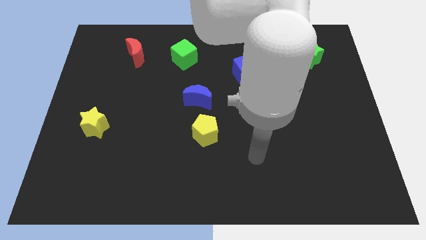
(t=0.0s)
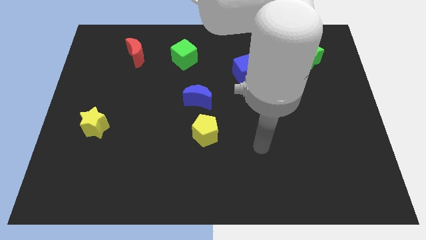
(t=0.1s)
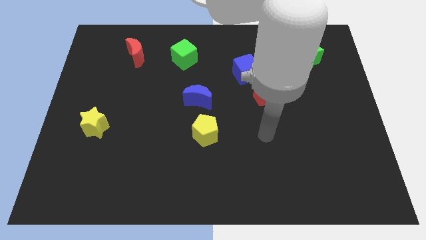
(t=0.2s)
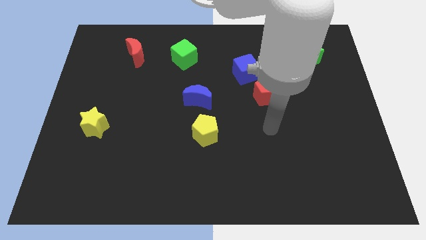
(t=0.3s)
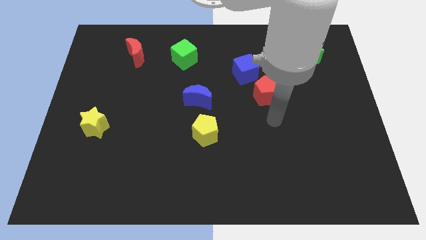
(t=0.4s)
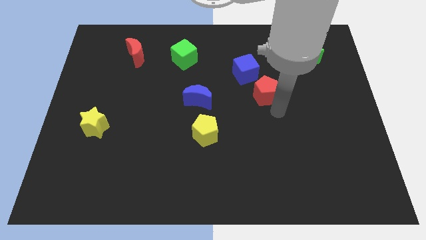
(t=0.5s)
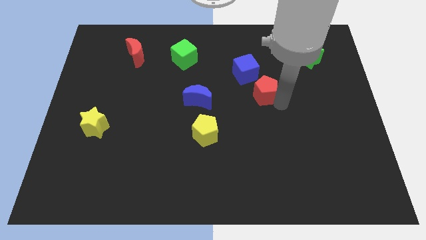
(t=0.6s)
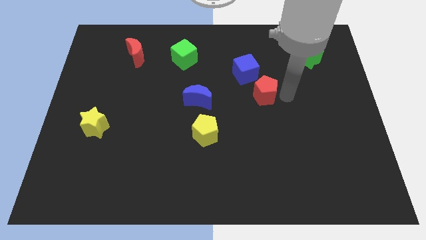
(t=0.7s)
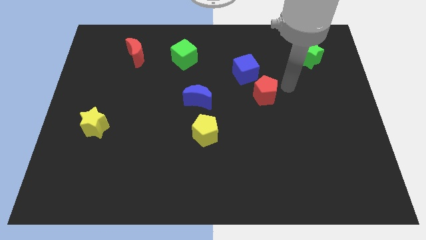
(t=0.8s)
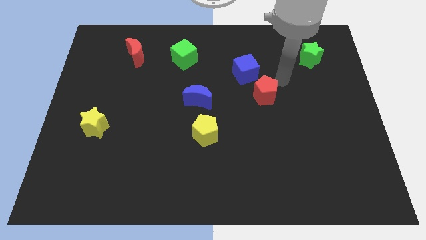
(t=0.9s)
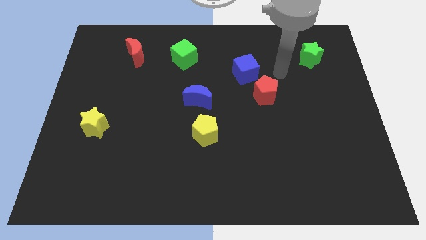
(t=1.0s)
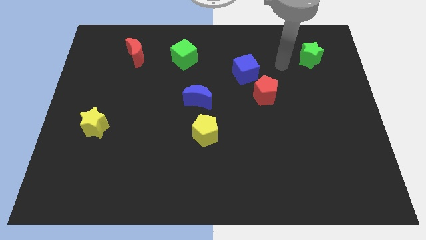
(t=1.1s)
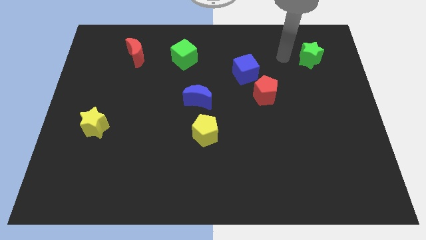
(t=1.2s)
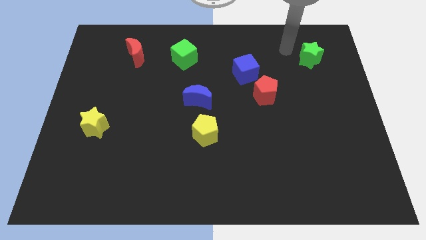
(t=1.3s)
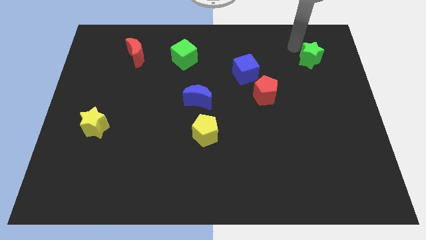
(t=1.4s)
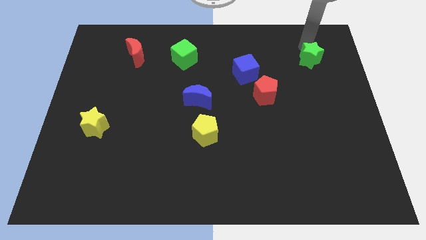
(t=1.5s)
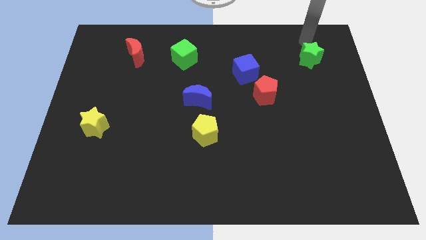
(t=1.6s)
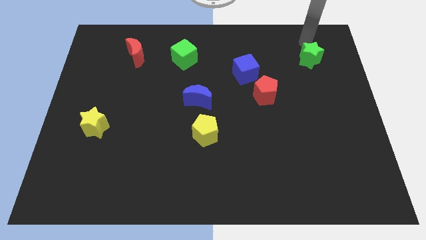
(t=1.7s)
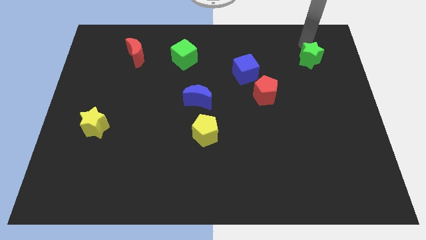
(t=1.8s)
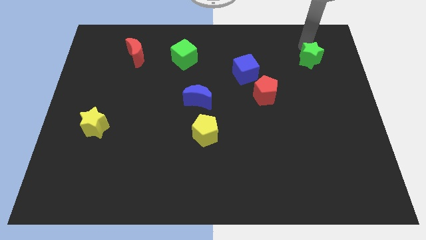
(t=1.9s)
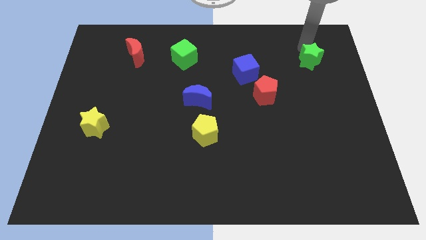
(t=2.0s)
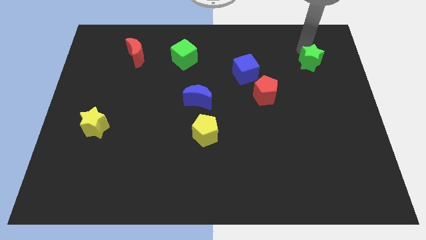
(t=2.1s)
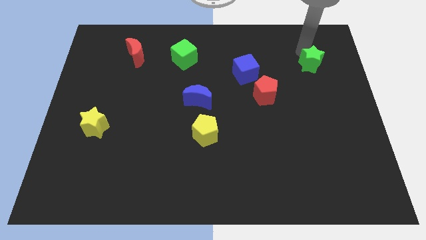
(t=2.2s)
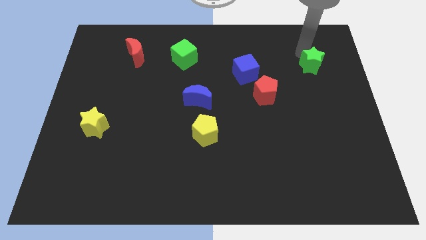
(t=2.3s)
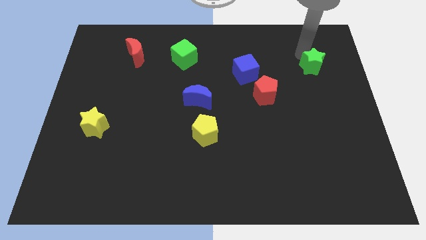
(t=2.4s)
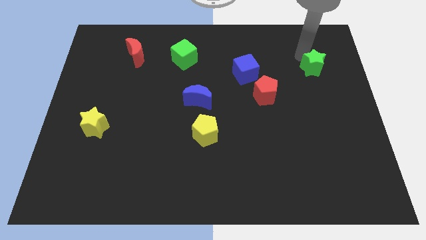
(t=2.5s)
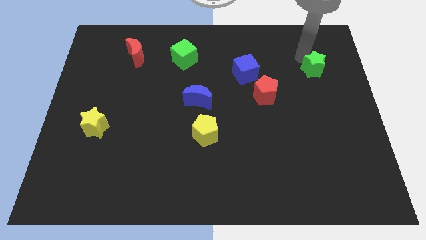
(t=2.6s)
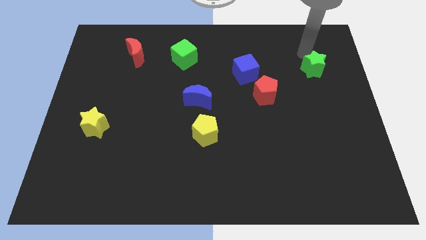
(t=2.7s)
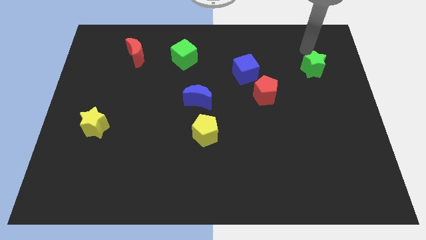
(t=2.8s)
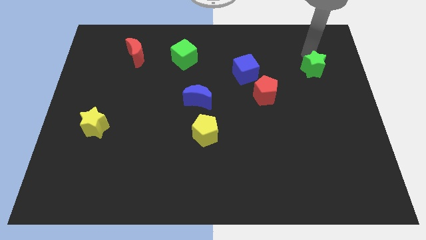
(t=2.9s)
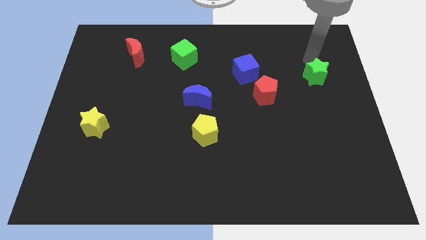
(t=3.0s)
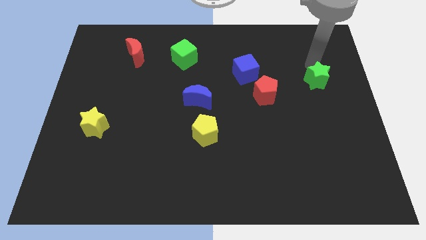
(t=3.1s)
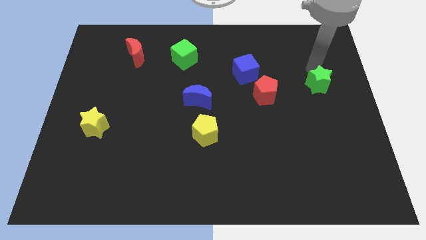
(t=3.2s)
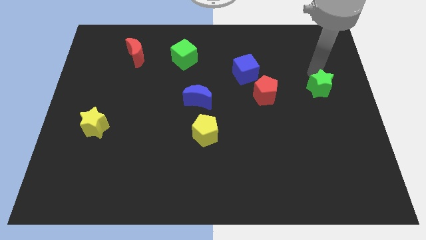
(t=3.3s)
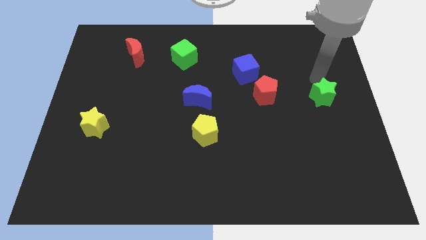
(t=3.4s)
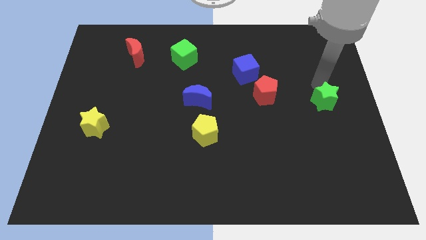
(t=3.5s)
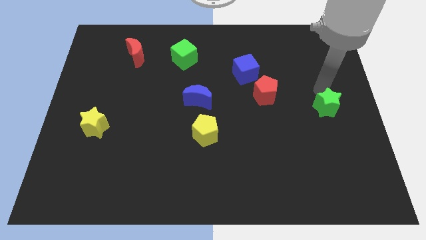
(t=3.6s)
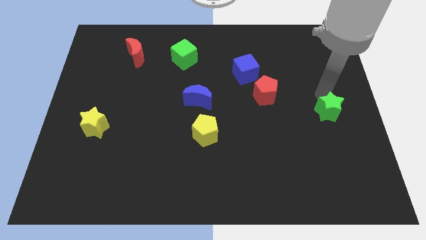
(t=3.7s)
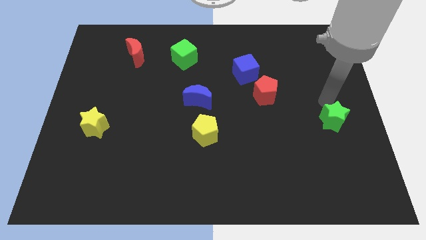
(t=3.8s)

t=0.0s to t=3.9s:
slide the green star downwards

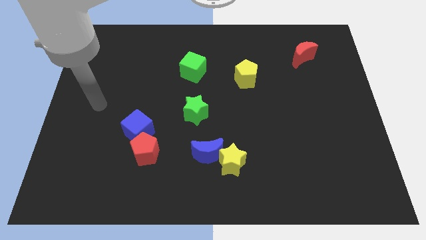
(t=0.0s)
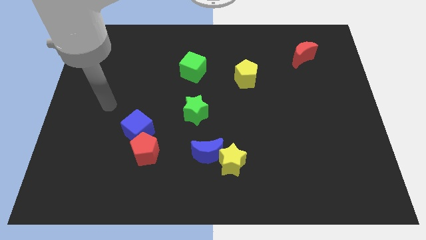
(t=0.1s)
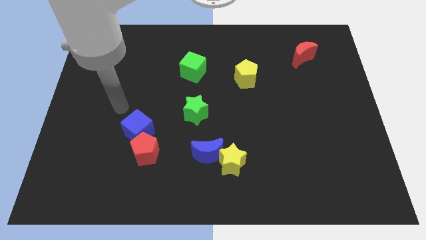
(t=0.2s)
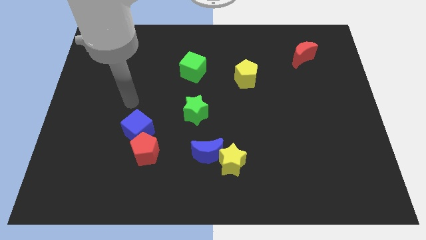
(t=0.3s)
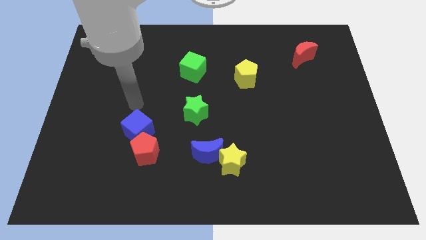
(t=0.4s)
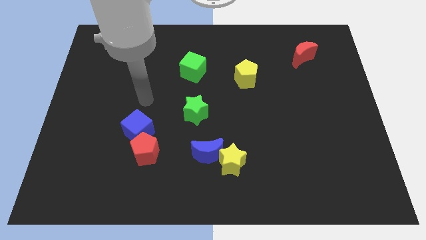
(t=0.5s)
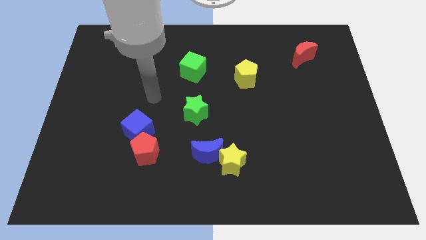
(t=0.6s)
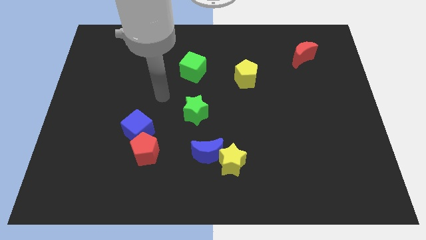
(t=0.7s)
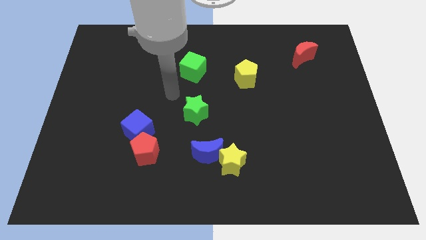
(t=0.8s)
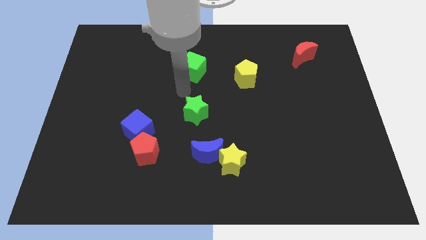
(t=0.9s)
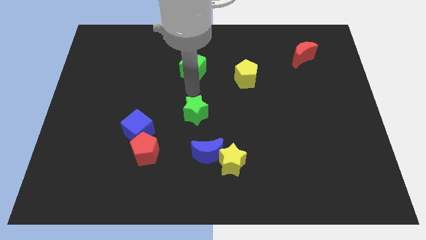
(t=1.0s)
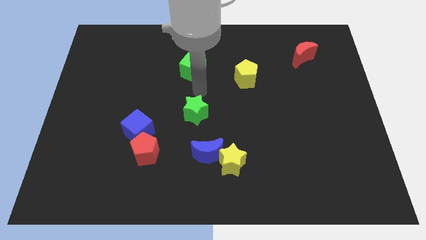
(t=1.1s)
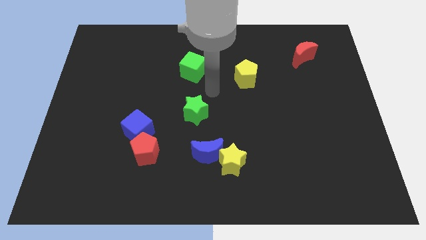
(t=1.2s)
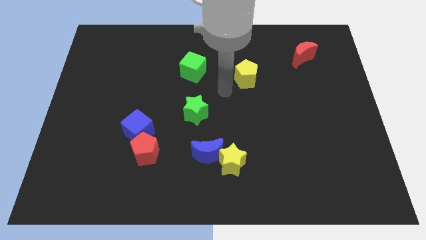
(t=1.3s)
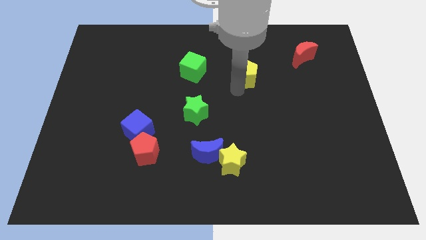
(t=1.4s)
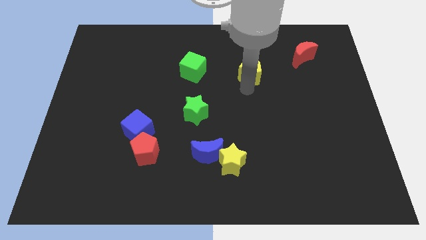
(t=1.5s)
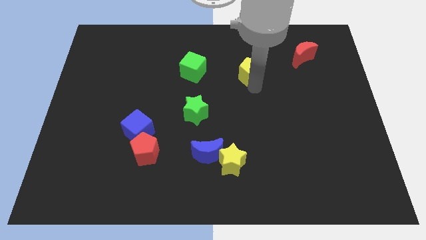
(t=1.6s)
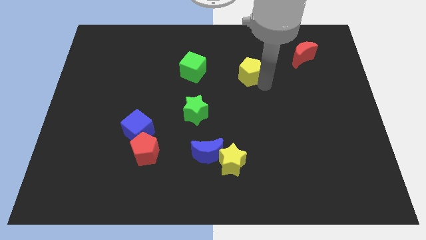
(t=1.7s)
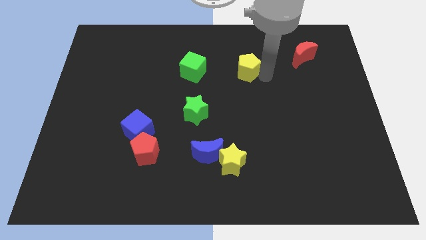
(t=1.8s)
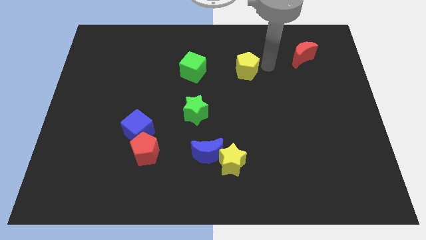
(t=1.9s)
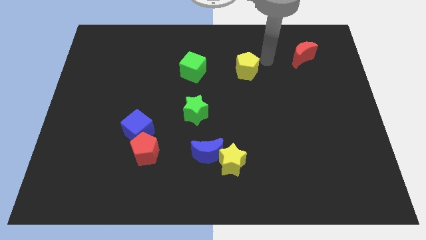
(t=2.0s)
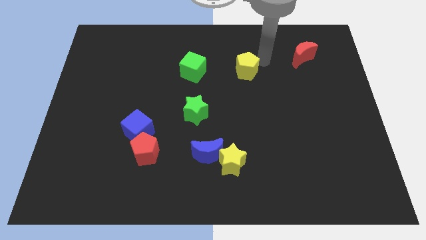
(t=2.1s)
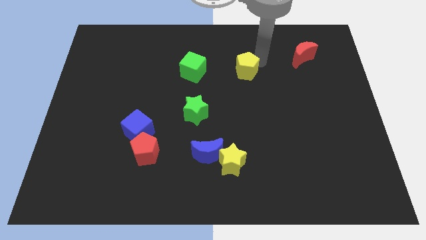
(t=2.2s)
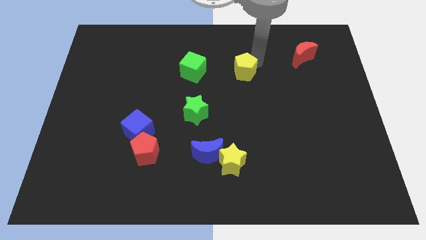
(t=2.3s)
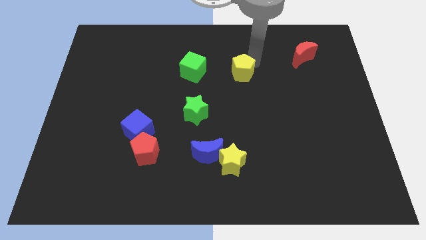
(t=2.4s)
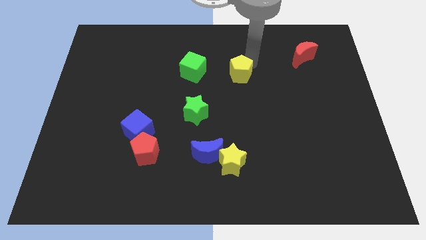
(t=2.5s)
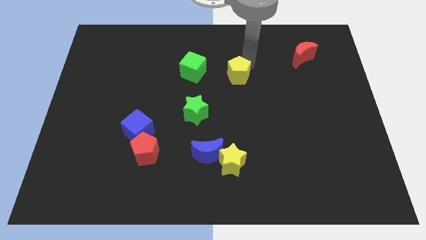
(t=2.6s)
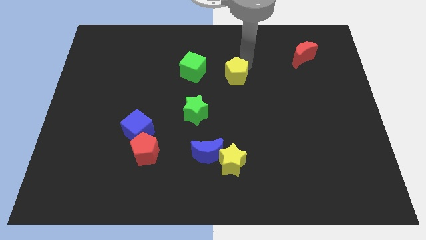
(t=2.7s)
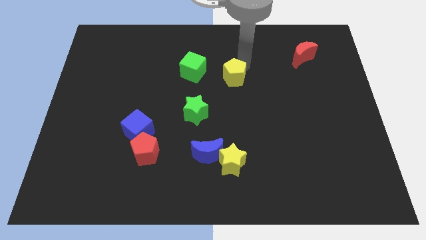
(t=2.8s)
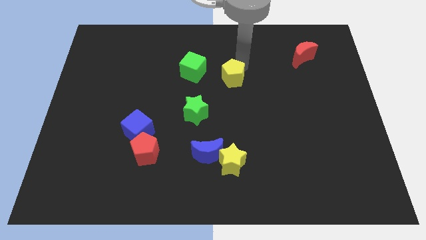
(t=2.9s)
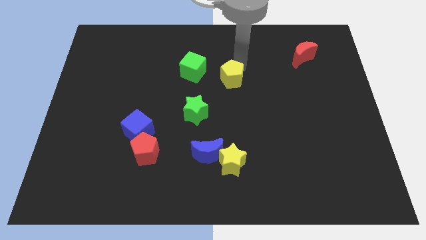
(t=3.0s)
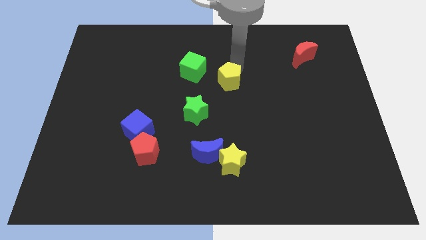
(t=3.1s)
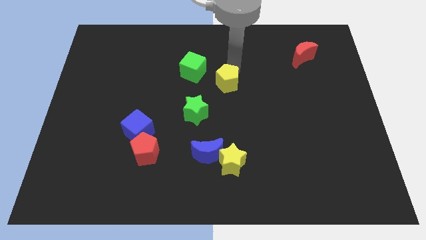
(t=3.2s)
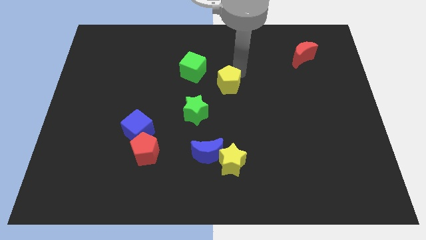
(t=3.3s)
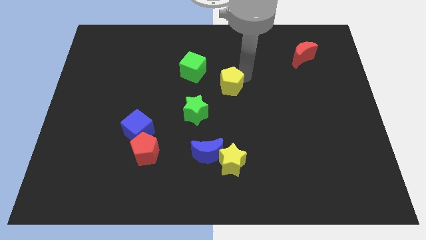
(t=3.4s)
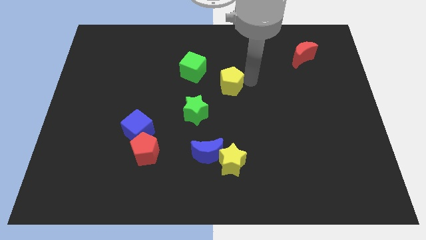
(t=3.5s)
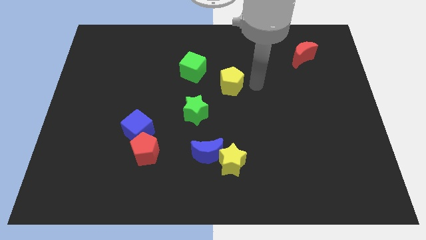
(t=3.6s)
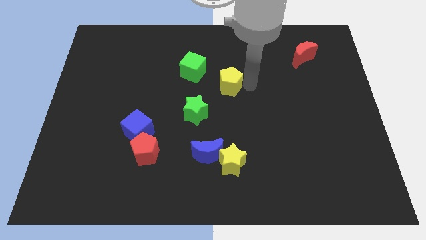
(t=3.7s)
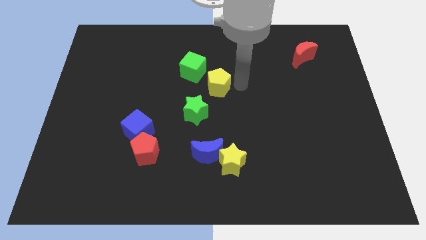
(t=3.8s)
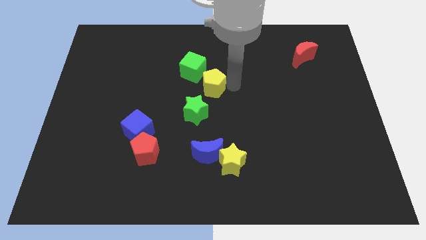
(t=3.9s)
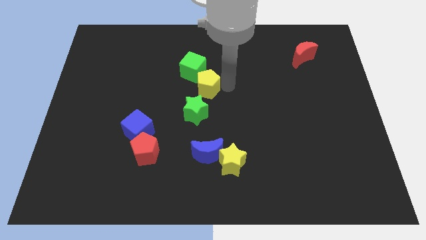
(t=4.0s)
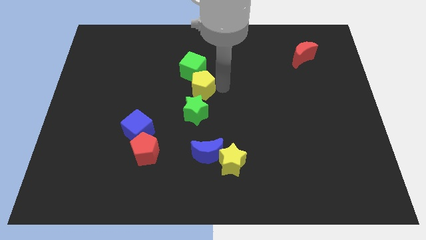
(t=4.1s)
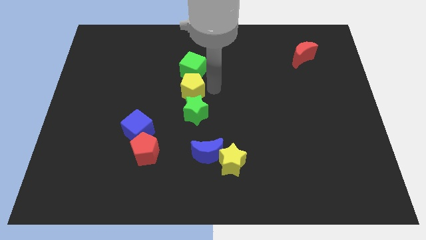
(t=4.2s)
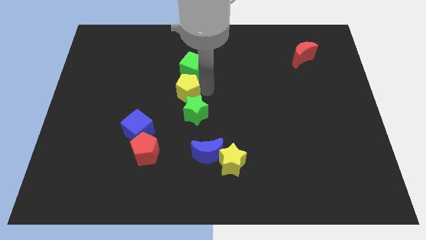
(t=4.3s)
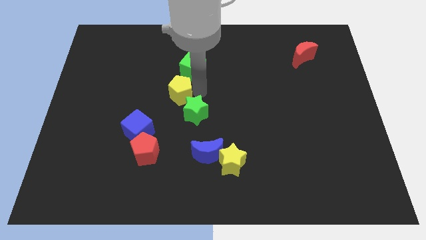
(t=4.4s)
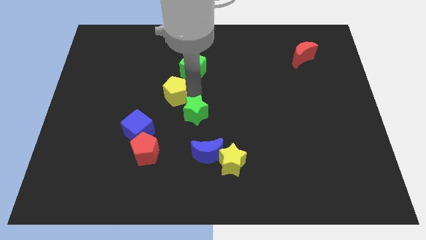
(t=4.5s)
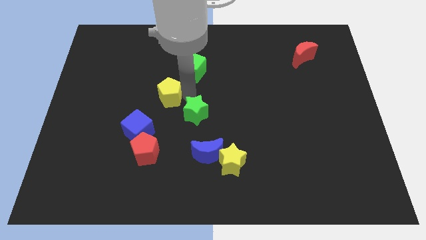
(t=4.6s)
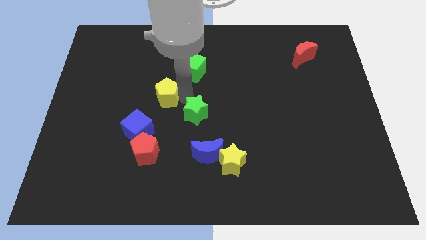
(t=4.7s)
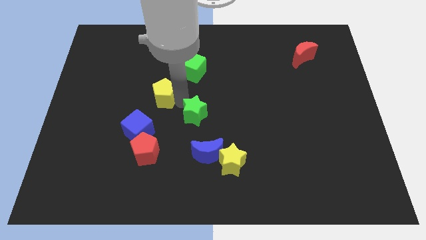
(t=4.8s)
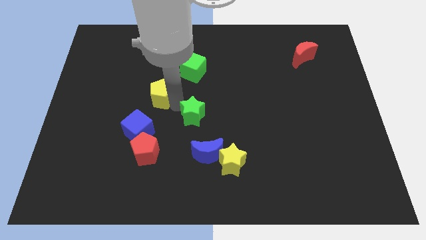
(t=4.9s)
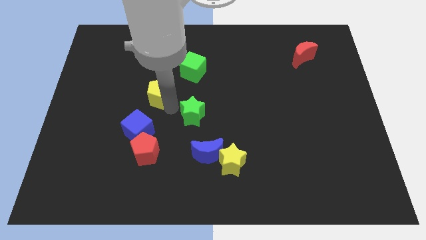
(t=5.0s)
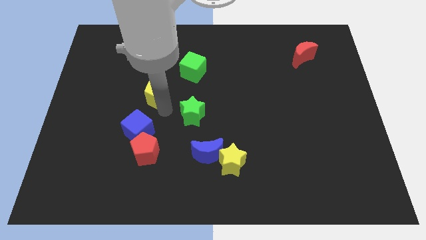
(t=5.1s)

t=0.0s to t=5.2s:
slide the yellow pentagon to the left
